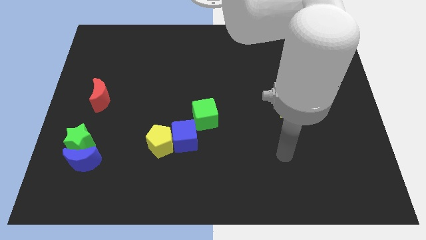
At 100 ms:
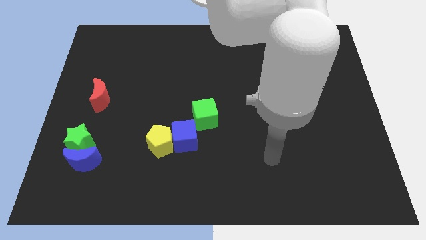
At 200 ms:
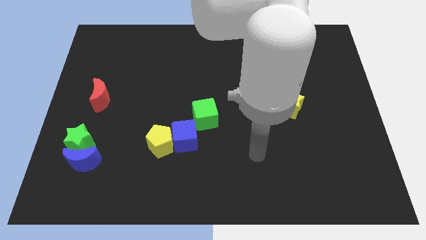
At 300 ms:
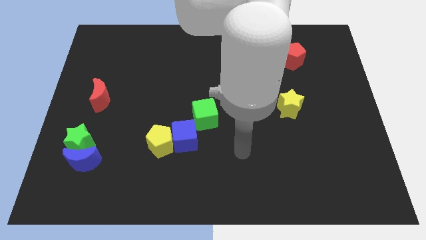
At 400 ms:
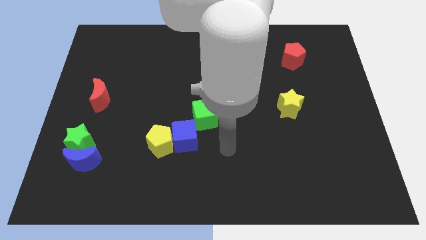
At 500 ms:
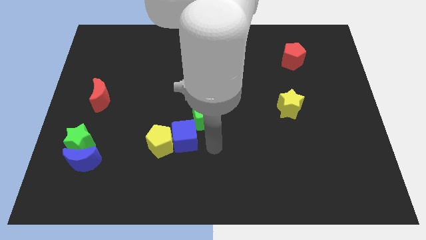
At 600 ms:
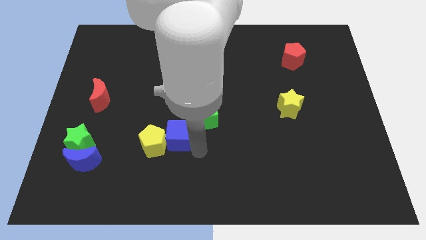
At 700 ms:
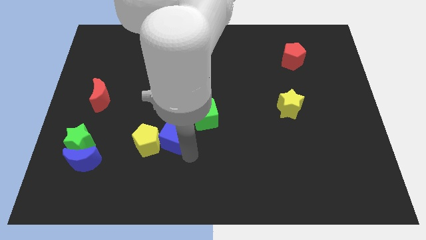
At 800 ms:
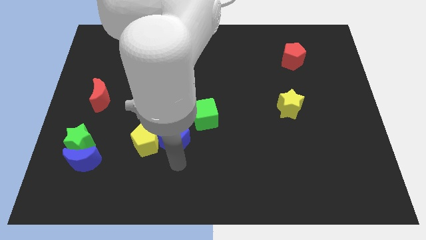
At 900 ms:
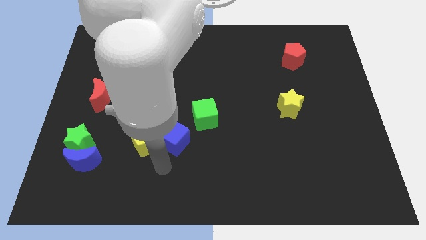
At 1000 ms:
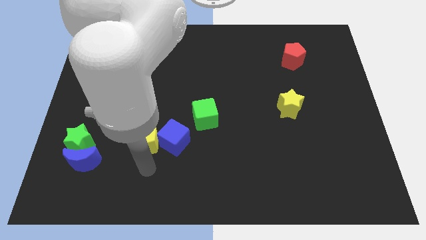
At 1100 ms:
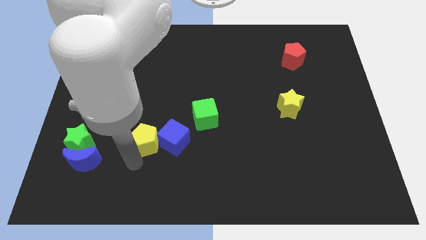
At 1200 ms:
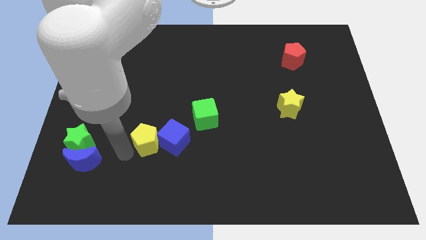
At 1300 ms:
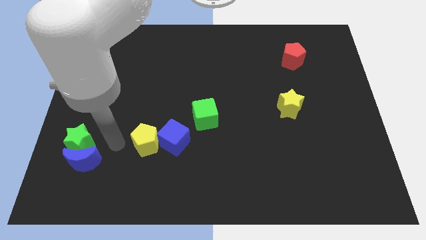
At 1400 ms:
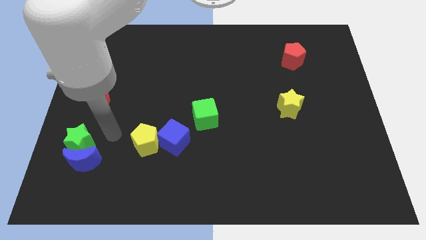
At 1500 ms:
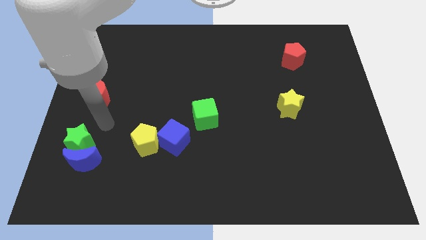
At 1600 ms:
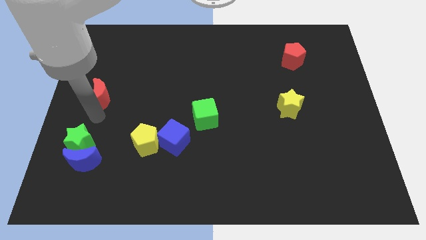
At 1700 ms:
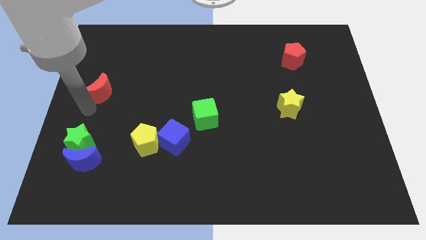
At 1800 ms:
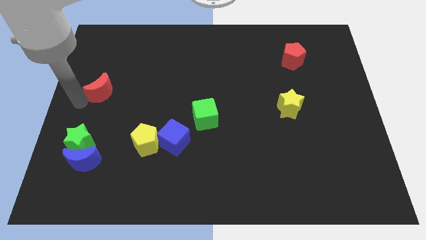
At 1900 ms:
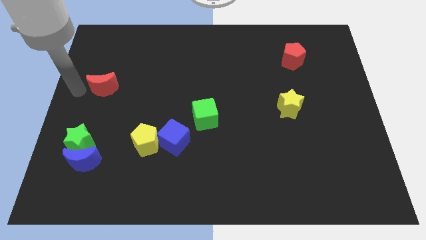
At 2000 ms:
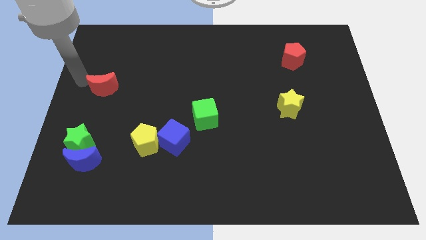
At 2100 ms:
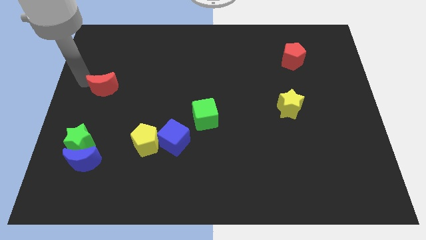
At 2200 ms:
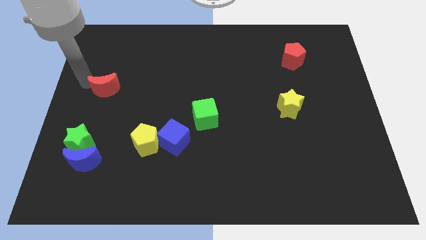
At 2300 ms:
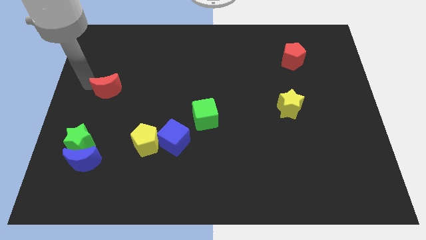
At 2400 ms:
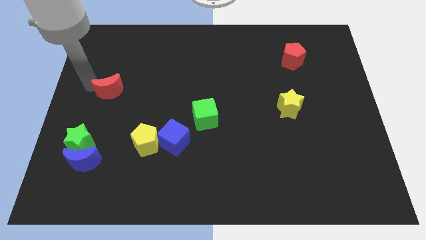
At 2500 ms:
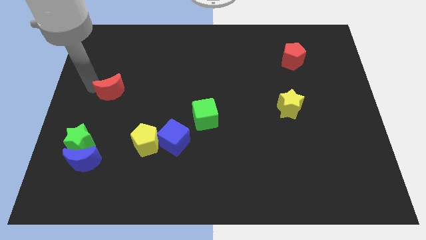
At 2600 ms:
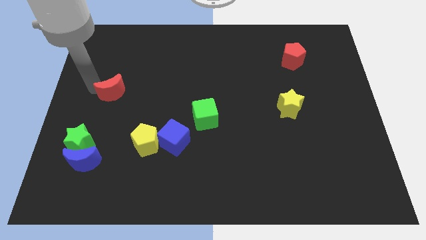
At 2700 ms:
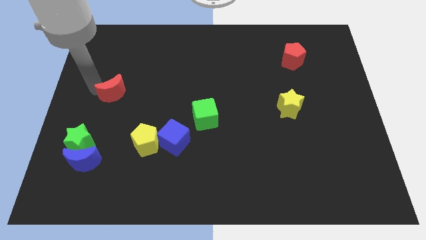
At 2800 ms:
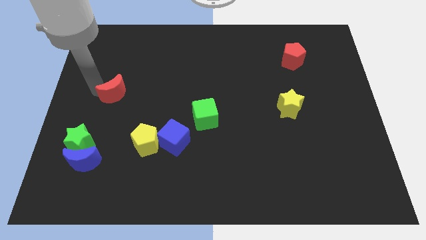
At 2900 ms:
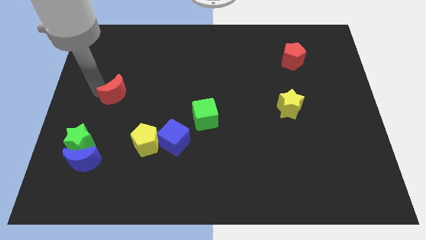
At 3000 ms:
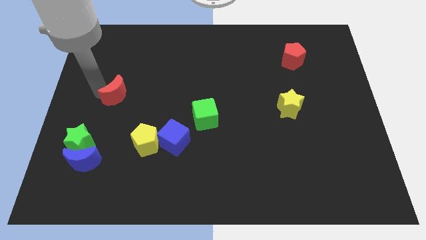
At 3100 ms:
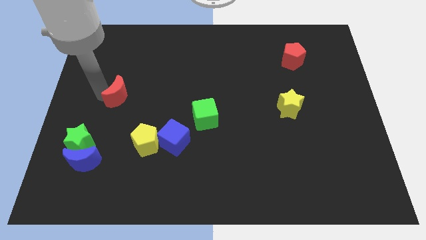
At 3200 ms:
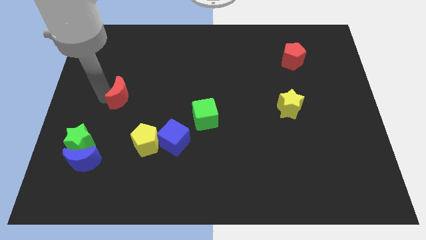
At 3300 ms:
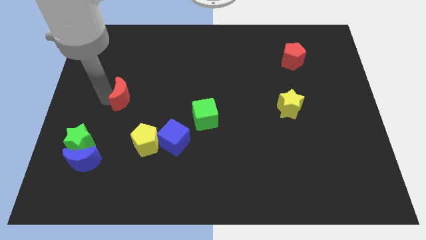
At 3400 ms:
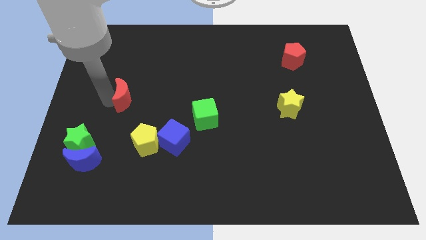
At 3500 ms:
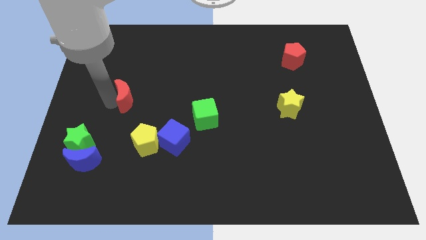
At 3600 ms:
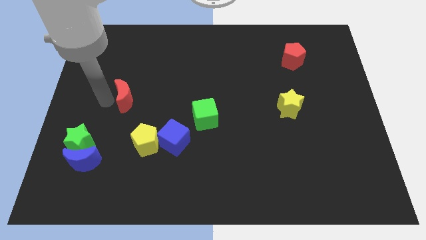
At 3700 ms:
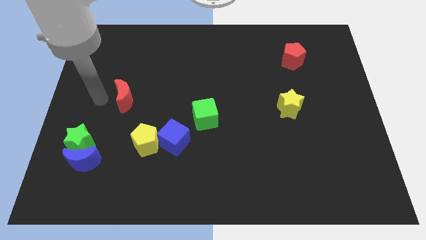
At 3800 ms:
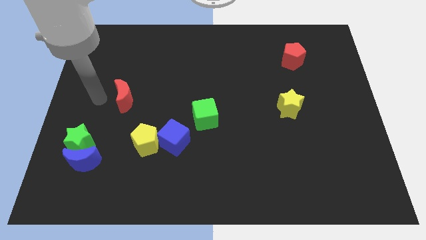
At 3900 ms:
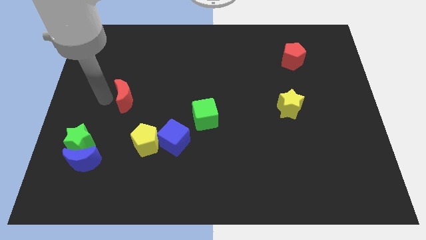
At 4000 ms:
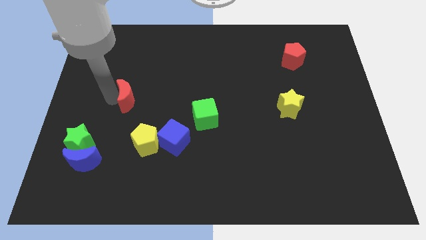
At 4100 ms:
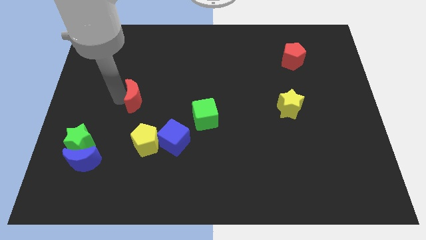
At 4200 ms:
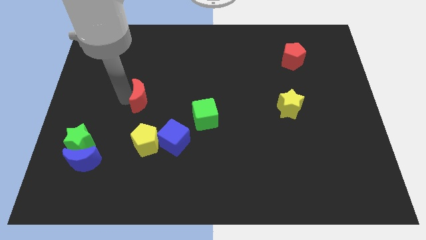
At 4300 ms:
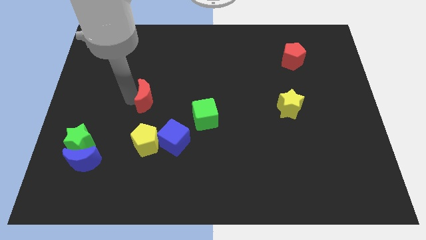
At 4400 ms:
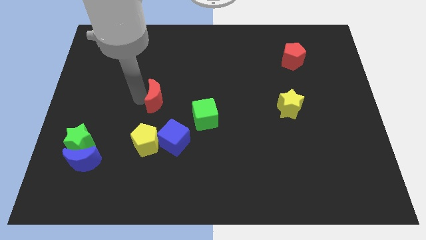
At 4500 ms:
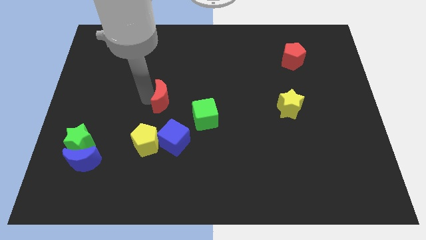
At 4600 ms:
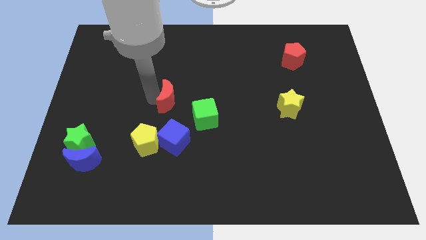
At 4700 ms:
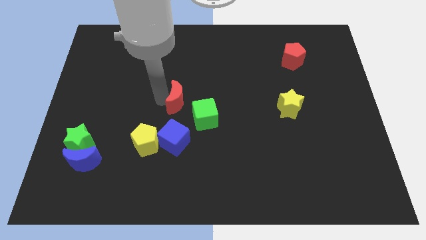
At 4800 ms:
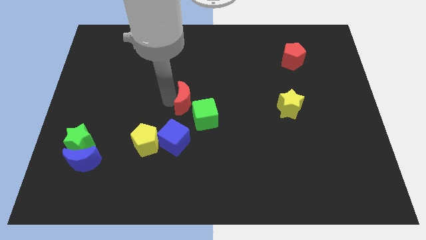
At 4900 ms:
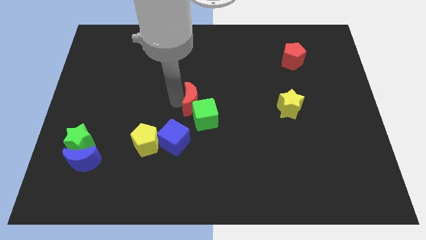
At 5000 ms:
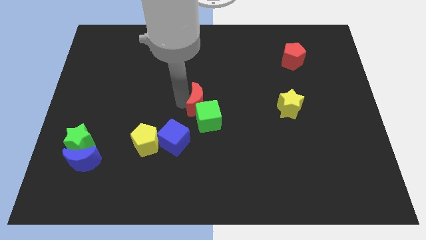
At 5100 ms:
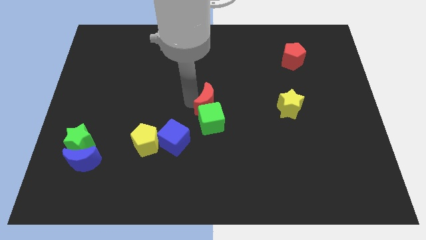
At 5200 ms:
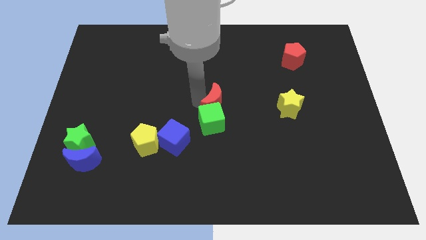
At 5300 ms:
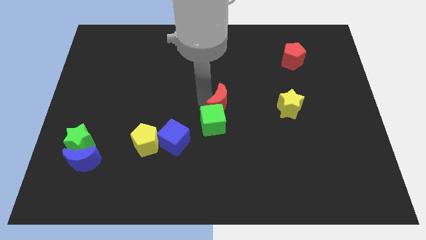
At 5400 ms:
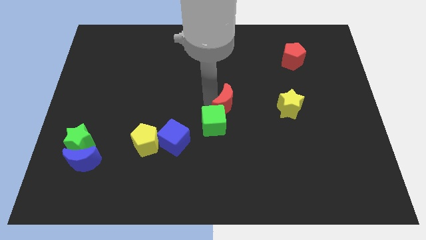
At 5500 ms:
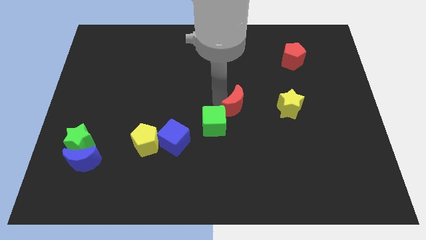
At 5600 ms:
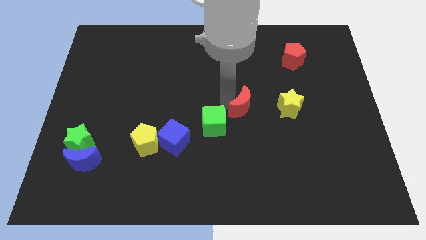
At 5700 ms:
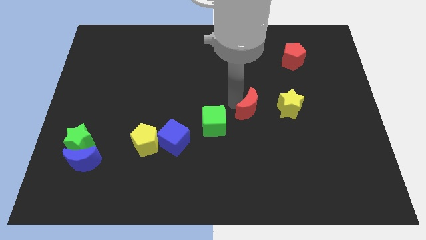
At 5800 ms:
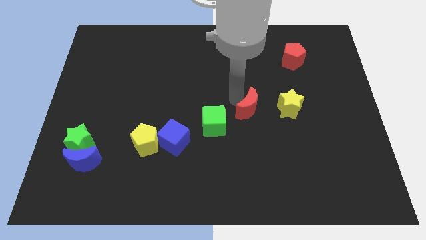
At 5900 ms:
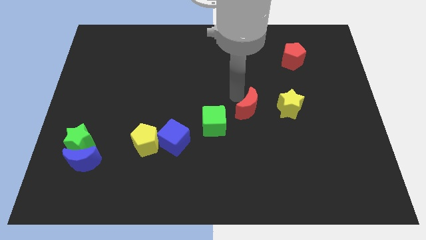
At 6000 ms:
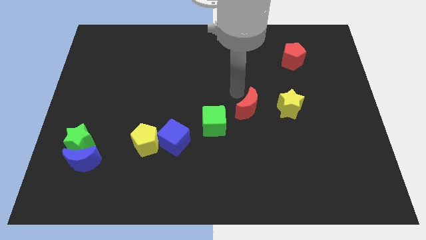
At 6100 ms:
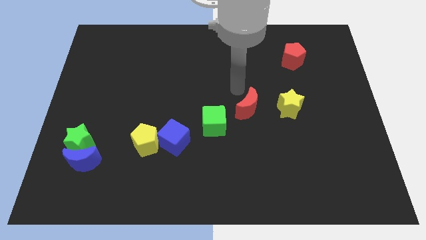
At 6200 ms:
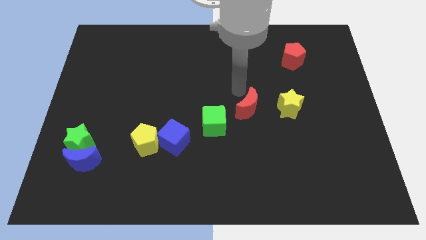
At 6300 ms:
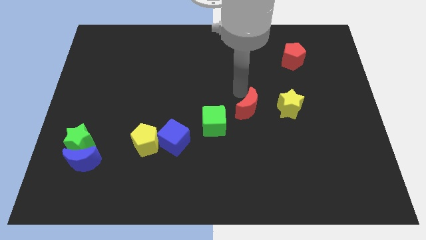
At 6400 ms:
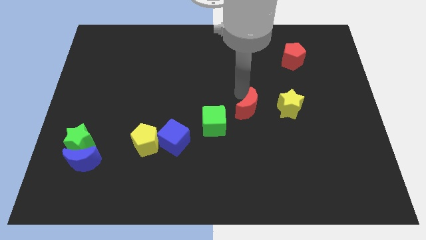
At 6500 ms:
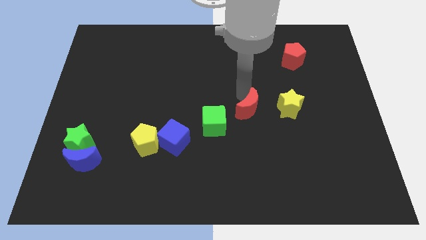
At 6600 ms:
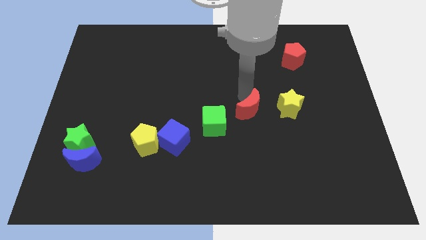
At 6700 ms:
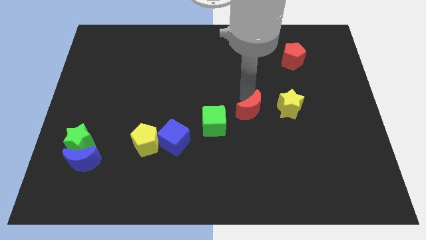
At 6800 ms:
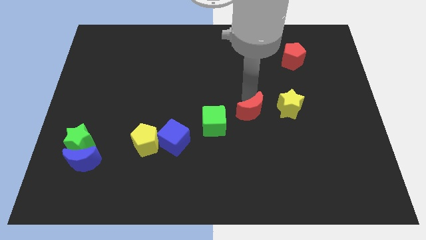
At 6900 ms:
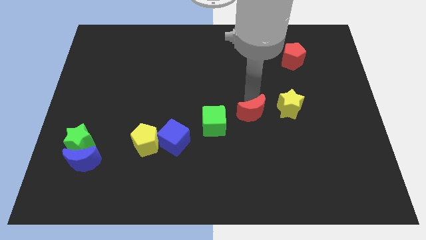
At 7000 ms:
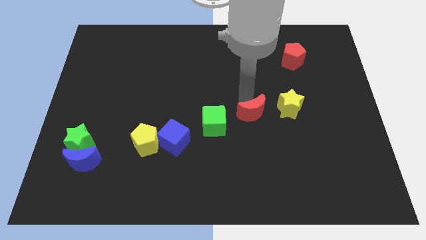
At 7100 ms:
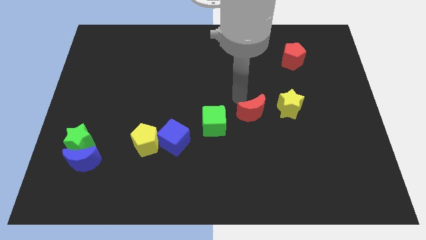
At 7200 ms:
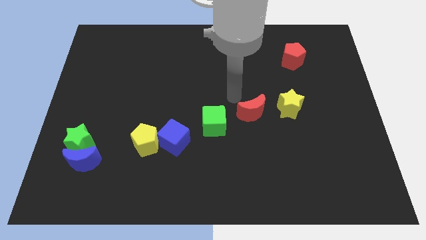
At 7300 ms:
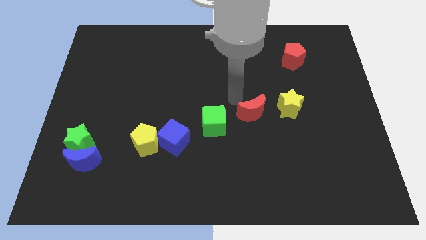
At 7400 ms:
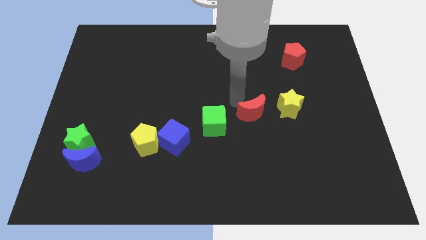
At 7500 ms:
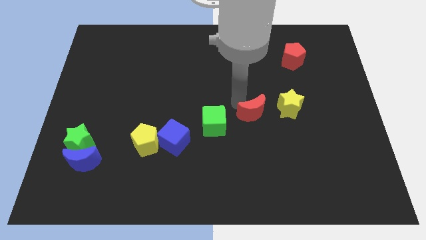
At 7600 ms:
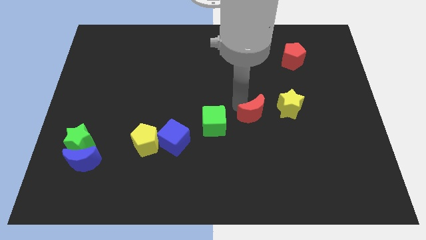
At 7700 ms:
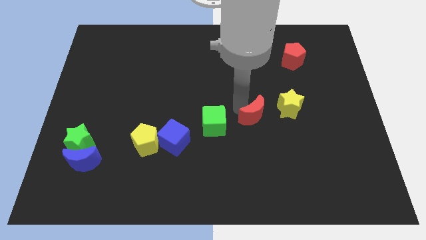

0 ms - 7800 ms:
slide the red moon to the bottom left side of the yellow star
